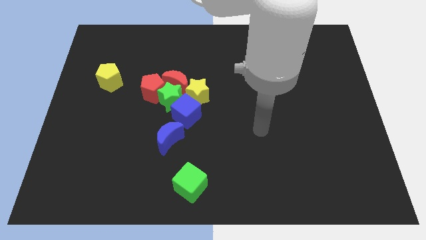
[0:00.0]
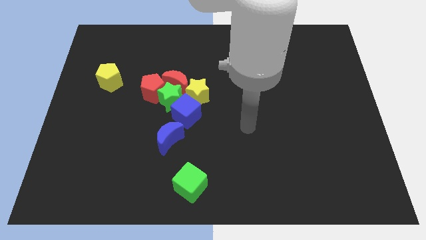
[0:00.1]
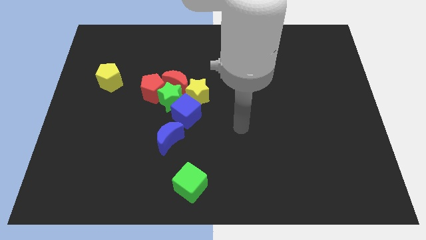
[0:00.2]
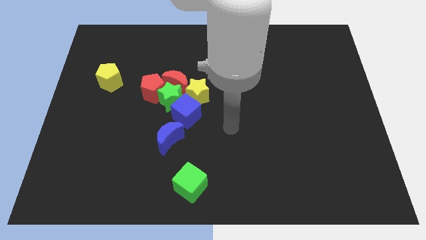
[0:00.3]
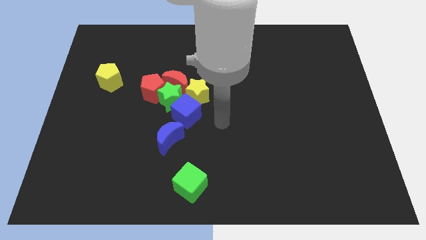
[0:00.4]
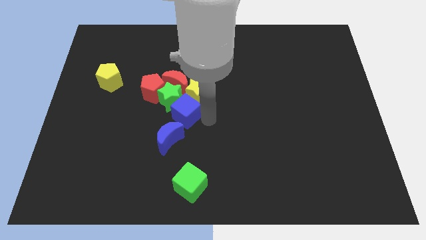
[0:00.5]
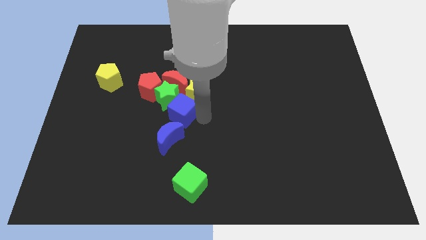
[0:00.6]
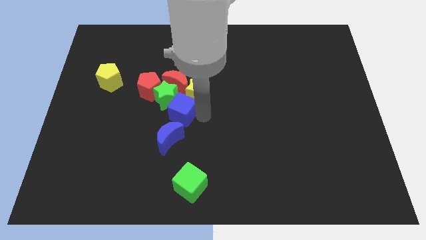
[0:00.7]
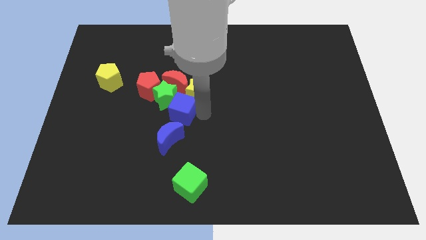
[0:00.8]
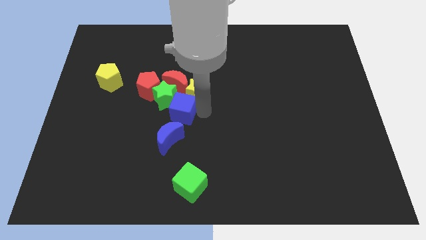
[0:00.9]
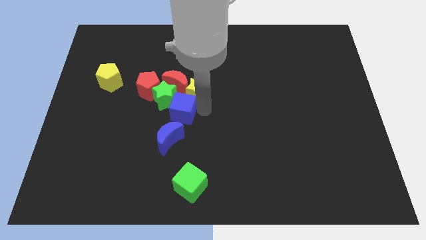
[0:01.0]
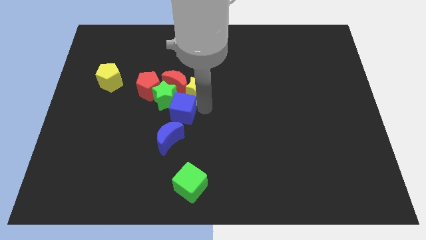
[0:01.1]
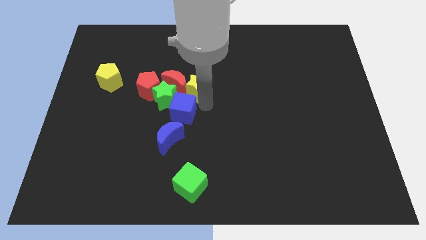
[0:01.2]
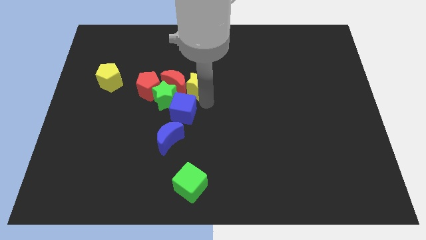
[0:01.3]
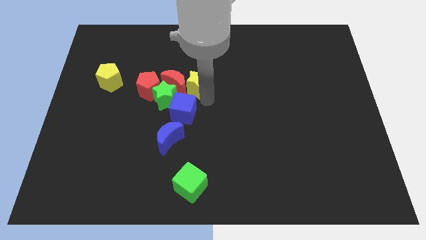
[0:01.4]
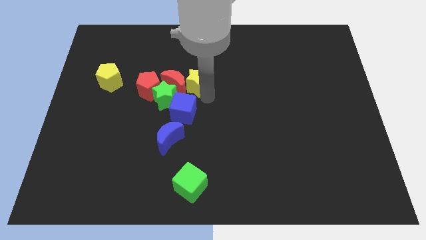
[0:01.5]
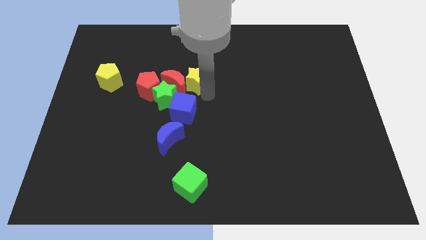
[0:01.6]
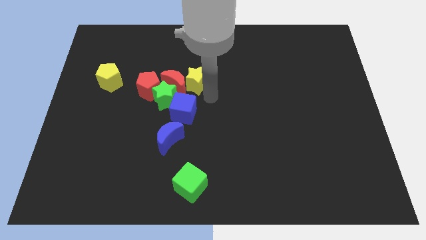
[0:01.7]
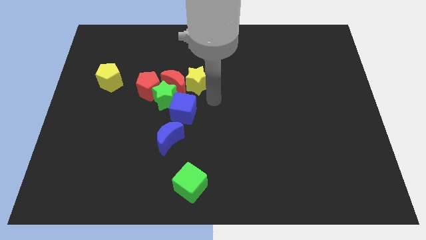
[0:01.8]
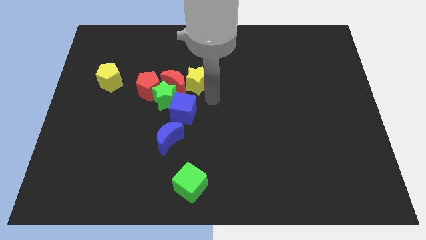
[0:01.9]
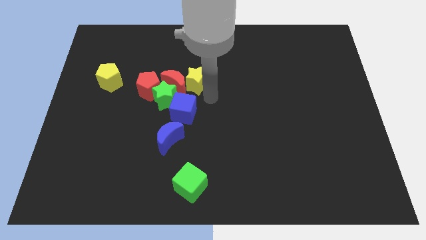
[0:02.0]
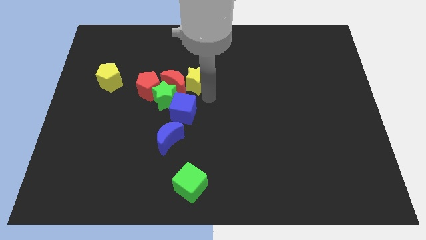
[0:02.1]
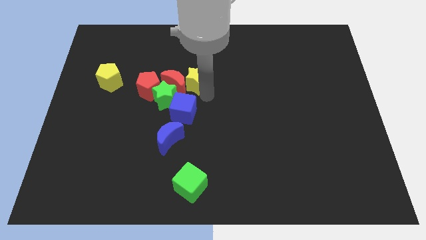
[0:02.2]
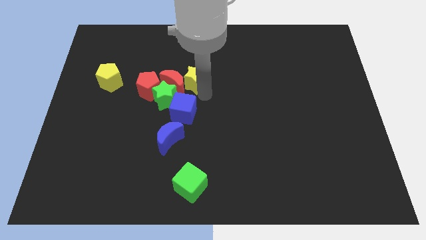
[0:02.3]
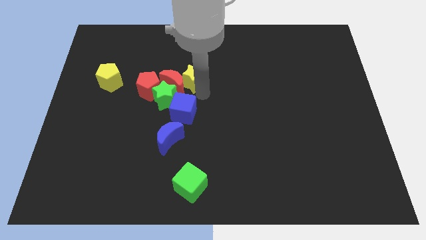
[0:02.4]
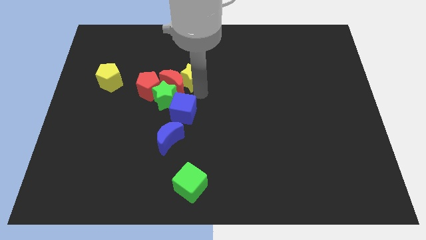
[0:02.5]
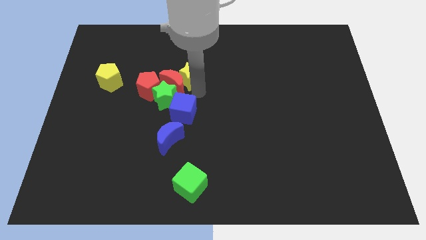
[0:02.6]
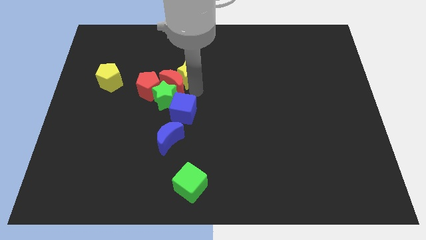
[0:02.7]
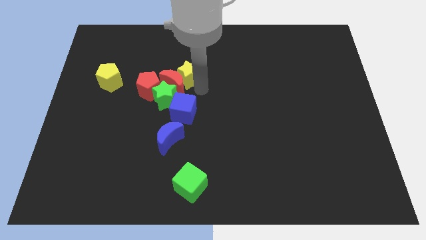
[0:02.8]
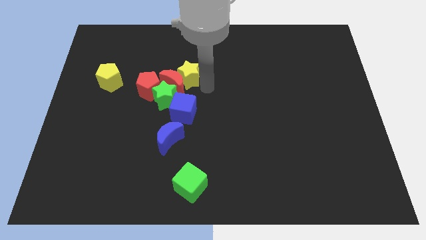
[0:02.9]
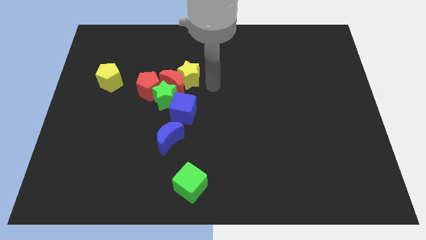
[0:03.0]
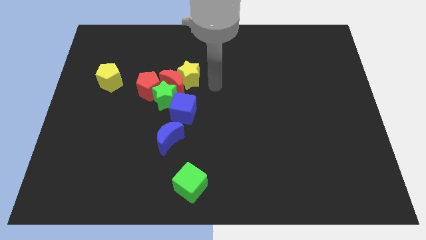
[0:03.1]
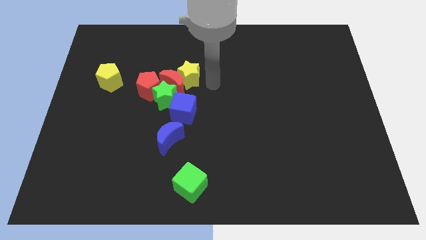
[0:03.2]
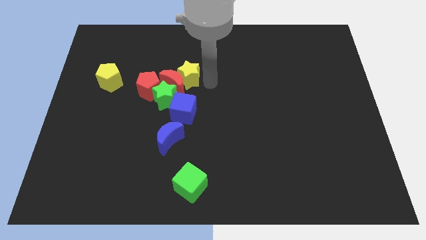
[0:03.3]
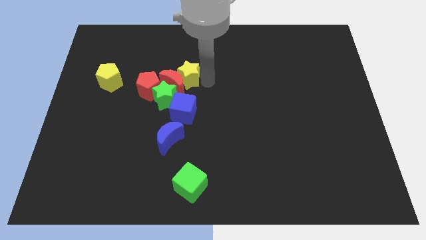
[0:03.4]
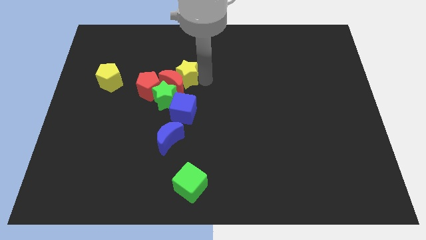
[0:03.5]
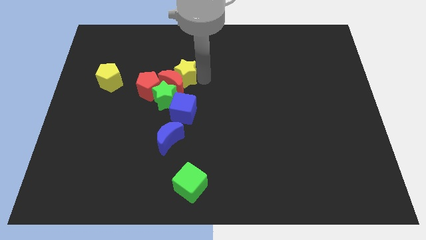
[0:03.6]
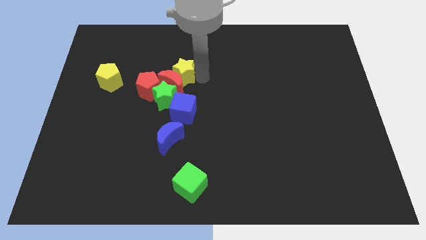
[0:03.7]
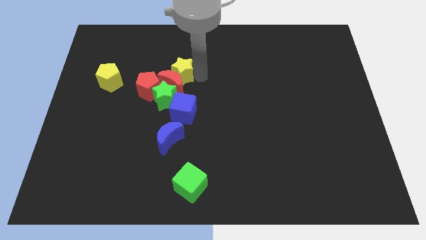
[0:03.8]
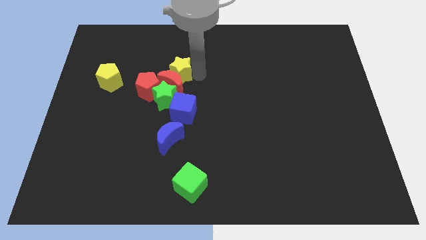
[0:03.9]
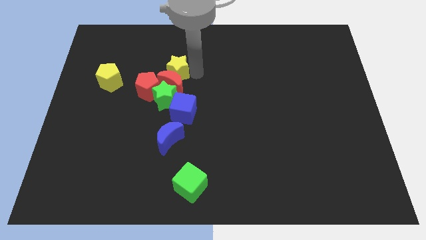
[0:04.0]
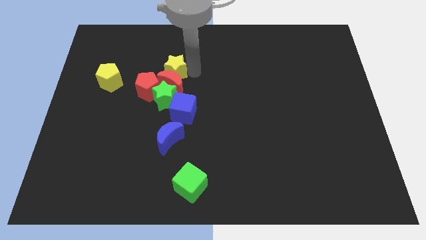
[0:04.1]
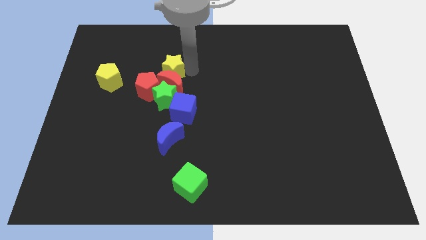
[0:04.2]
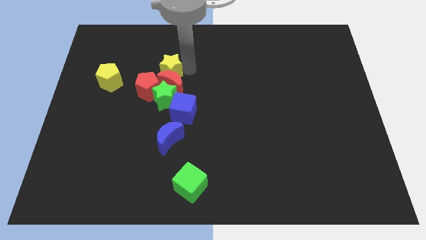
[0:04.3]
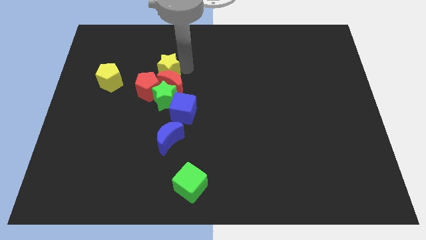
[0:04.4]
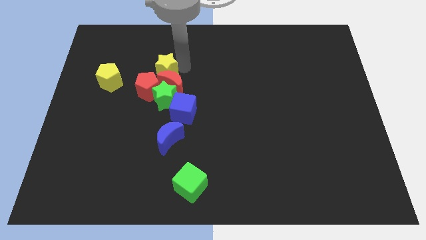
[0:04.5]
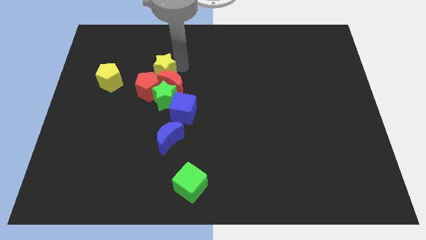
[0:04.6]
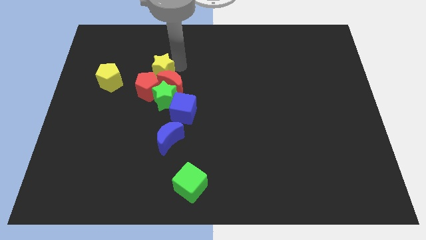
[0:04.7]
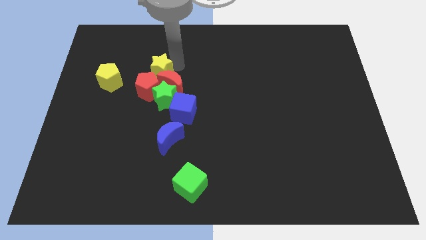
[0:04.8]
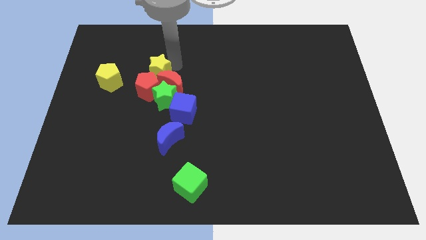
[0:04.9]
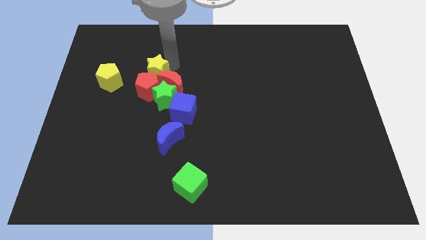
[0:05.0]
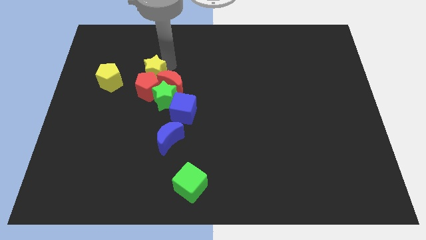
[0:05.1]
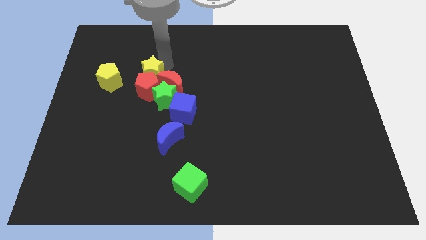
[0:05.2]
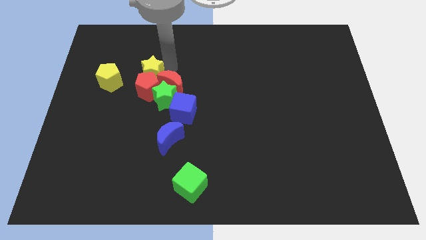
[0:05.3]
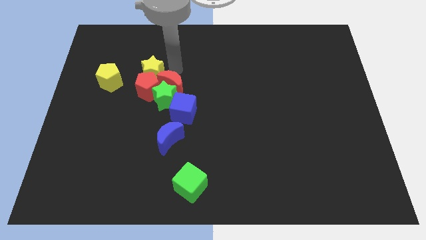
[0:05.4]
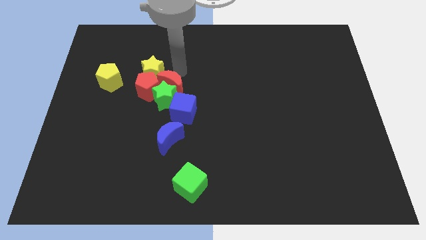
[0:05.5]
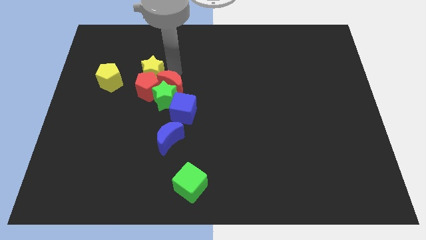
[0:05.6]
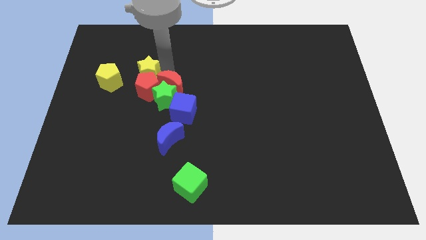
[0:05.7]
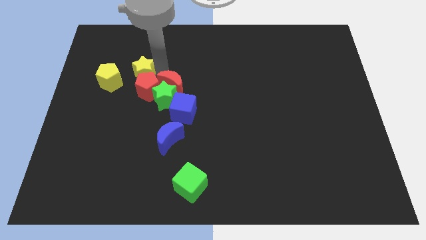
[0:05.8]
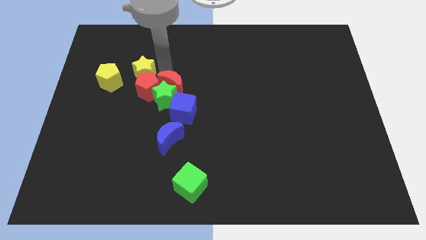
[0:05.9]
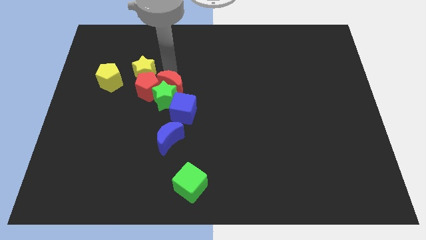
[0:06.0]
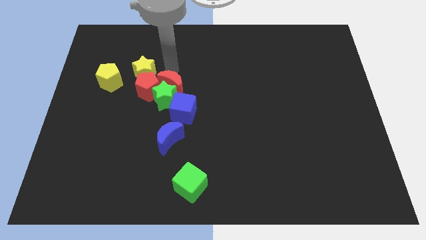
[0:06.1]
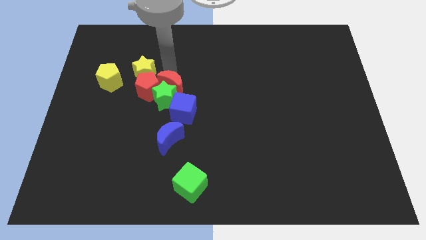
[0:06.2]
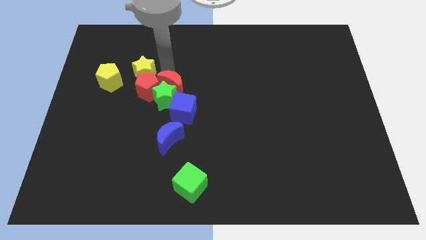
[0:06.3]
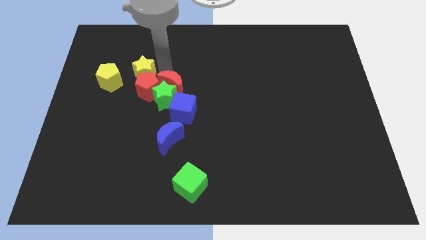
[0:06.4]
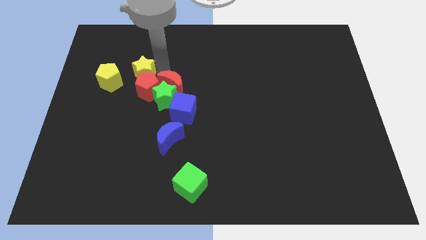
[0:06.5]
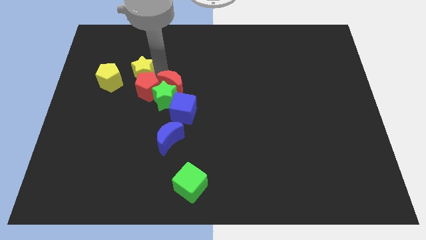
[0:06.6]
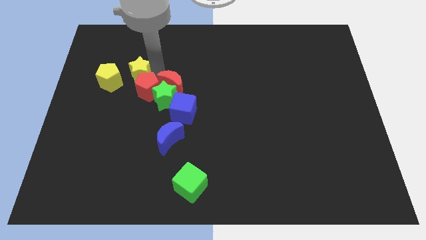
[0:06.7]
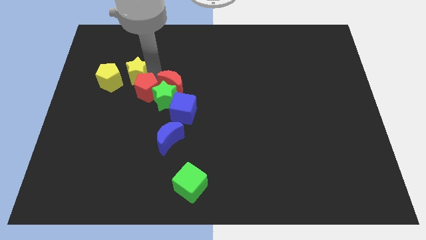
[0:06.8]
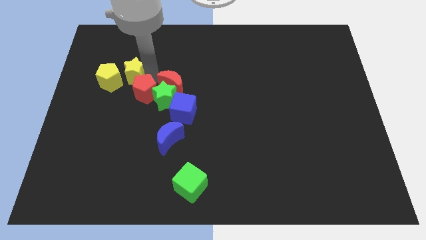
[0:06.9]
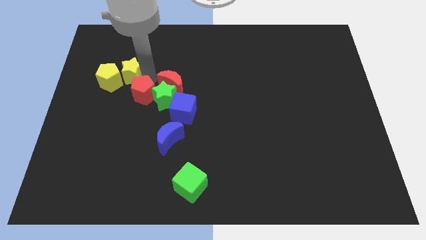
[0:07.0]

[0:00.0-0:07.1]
put the yellow star towards the yellow pentagon
